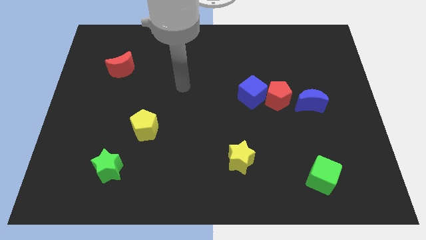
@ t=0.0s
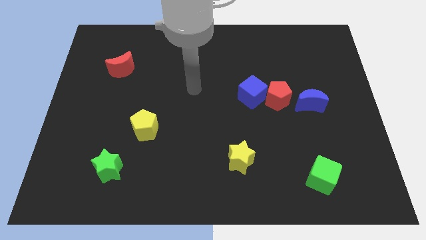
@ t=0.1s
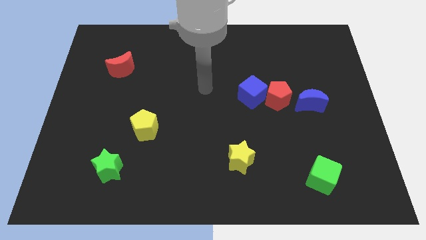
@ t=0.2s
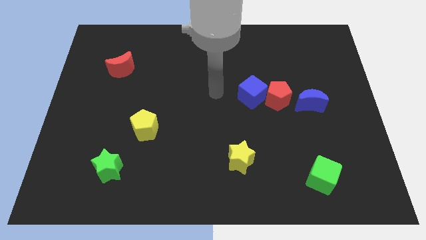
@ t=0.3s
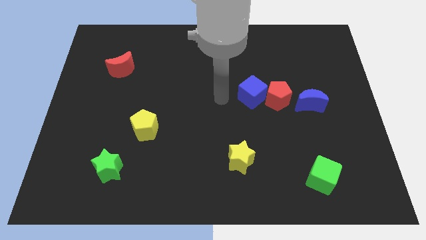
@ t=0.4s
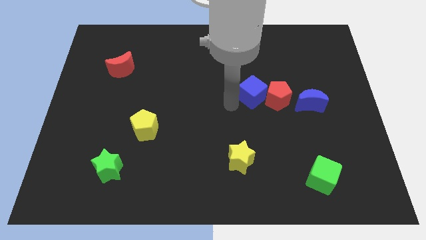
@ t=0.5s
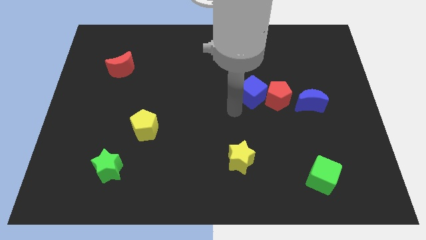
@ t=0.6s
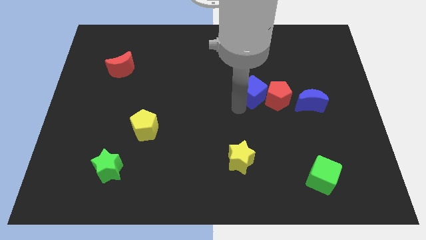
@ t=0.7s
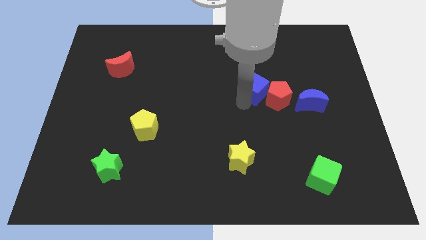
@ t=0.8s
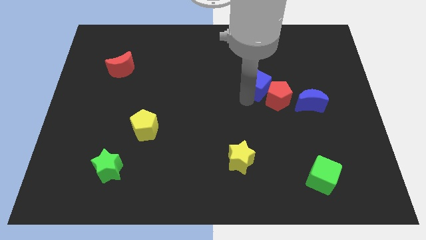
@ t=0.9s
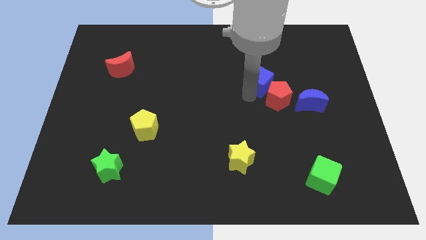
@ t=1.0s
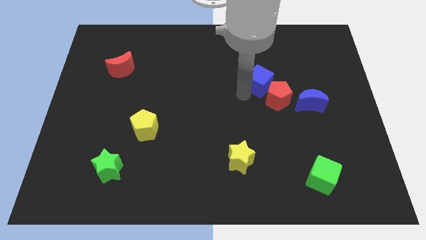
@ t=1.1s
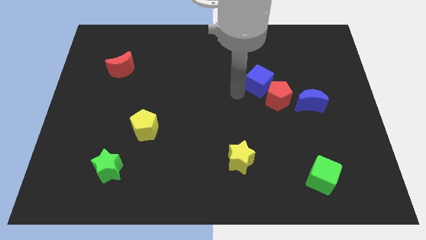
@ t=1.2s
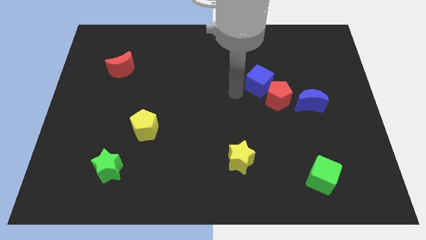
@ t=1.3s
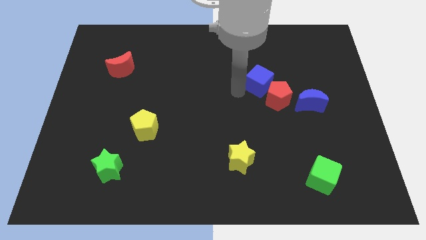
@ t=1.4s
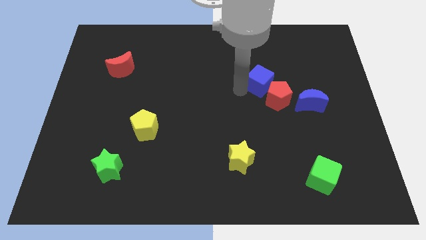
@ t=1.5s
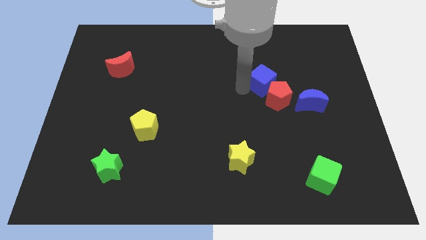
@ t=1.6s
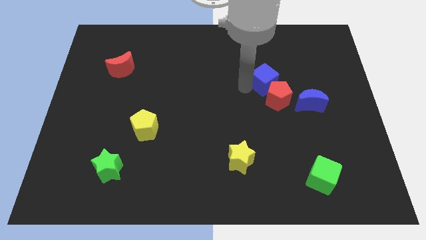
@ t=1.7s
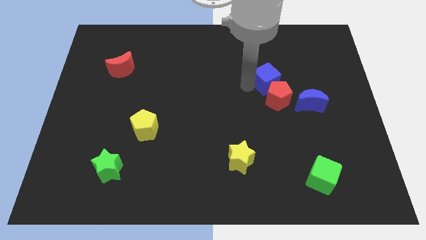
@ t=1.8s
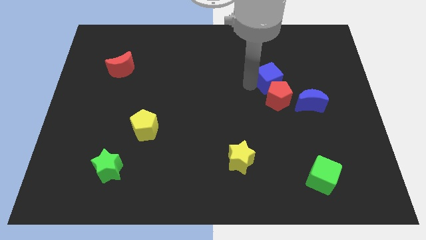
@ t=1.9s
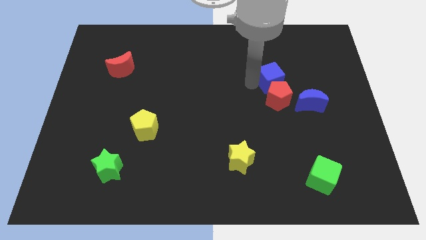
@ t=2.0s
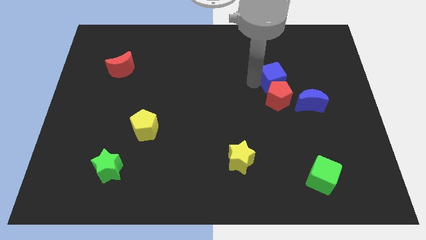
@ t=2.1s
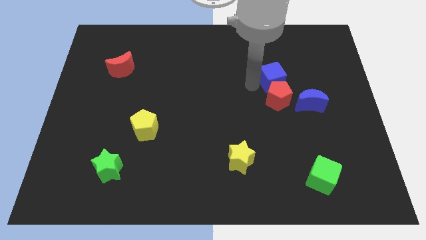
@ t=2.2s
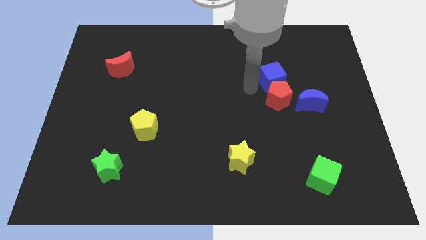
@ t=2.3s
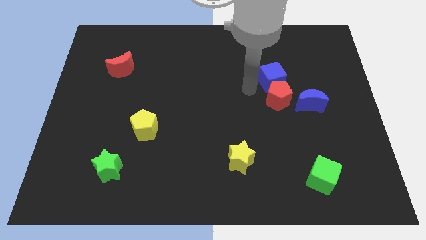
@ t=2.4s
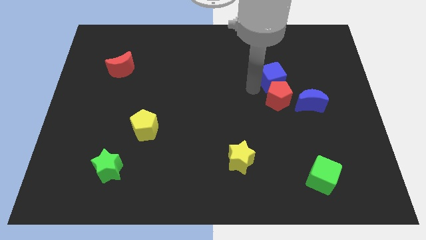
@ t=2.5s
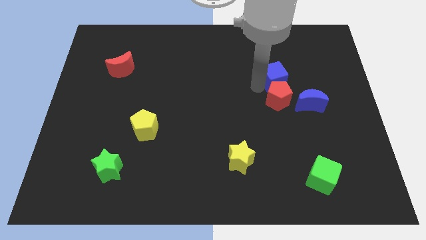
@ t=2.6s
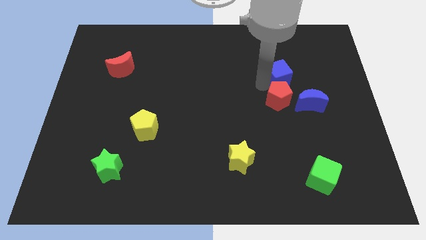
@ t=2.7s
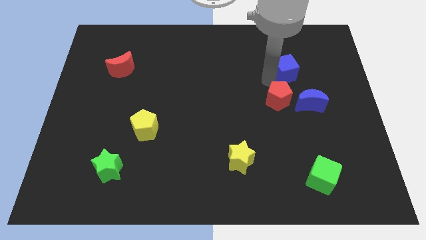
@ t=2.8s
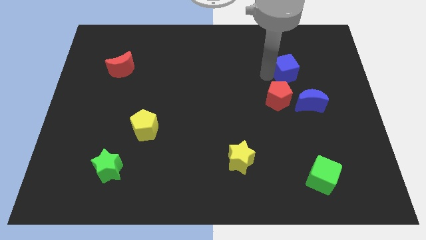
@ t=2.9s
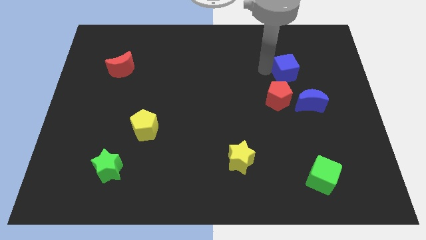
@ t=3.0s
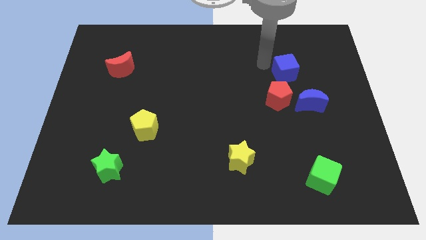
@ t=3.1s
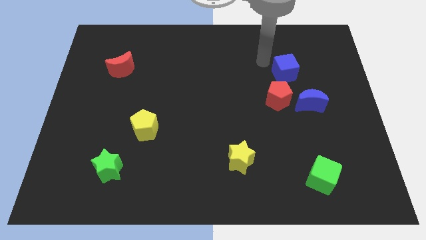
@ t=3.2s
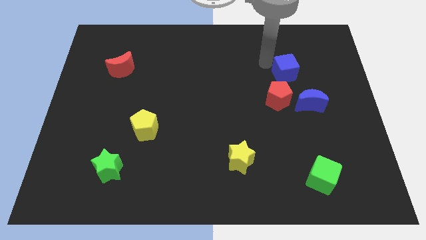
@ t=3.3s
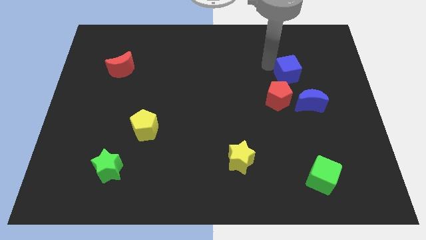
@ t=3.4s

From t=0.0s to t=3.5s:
move the blue cube to the right a little

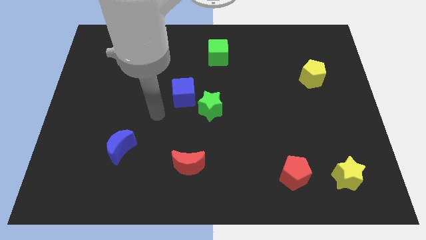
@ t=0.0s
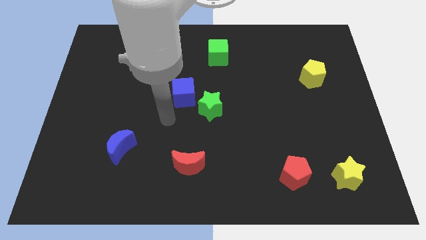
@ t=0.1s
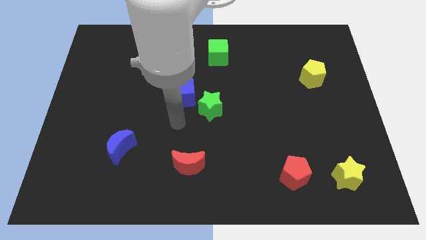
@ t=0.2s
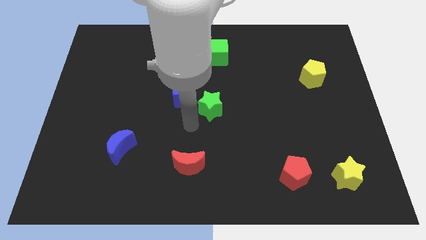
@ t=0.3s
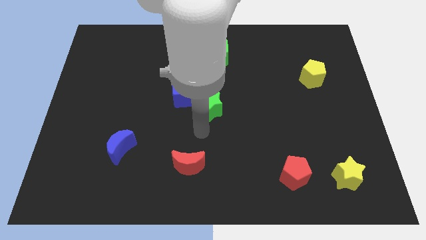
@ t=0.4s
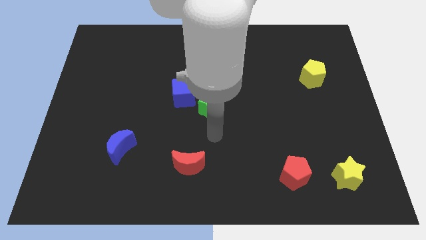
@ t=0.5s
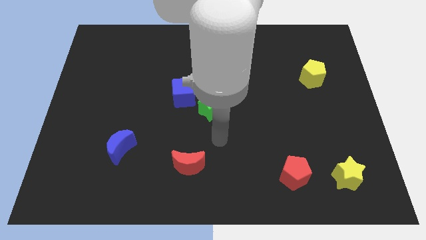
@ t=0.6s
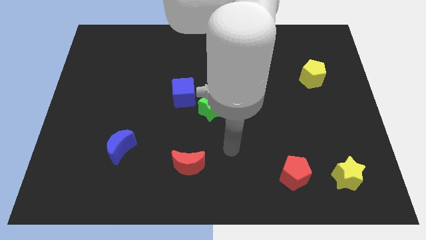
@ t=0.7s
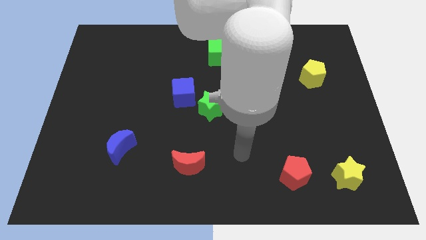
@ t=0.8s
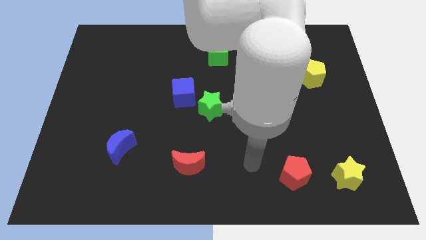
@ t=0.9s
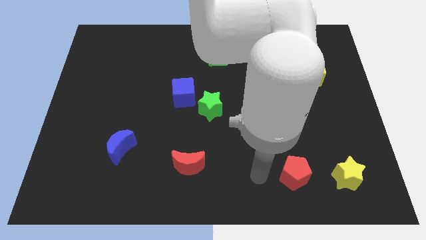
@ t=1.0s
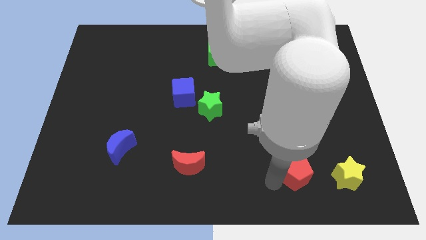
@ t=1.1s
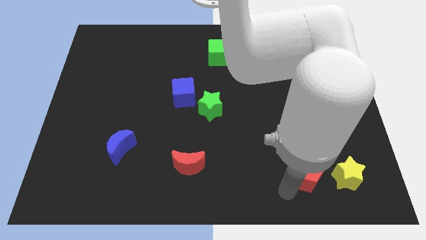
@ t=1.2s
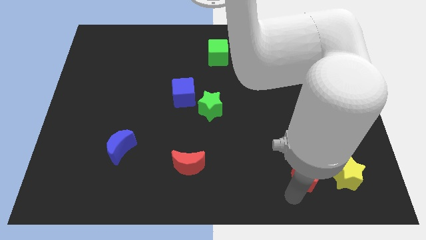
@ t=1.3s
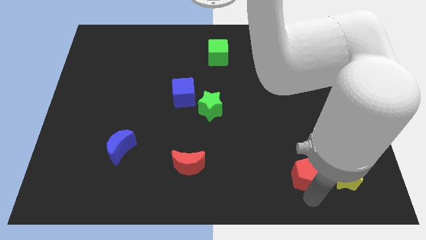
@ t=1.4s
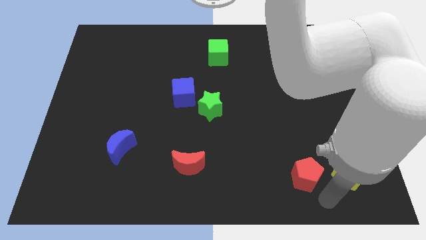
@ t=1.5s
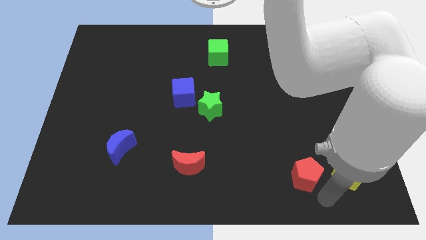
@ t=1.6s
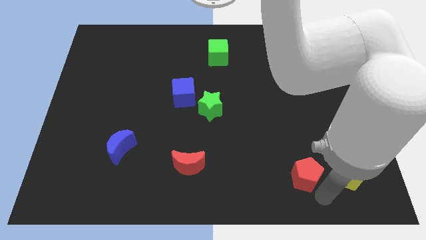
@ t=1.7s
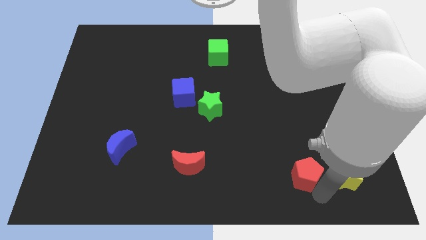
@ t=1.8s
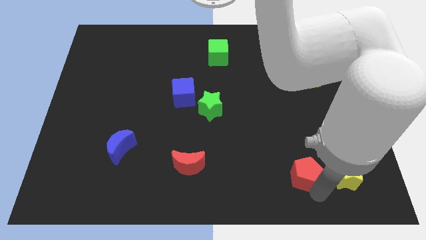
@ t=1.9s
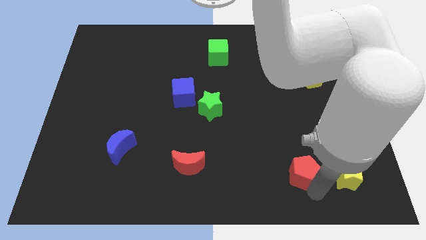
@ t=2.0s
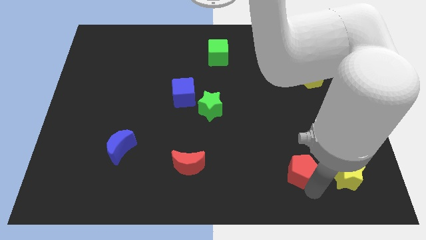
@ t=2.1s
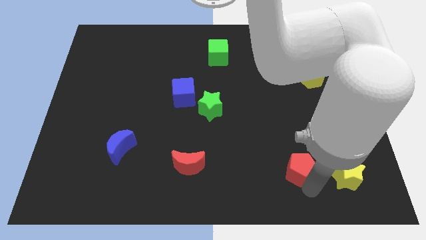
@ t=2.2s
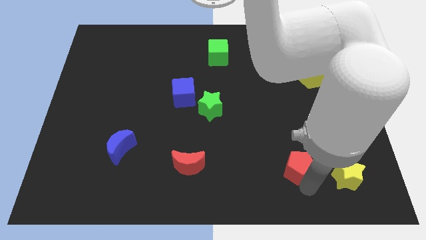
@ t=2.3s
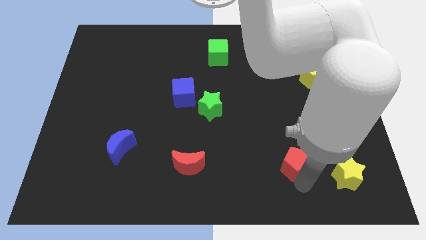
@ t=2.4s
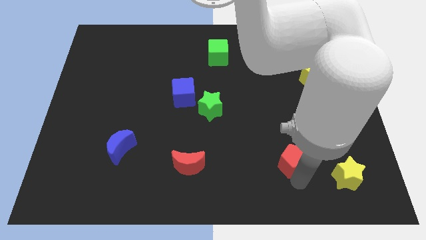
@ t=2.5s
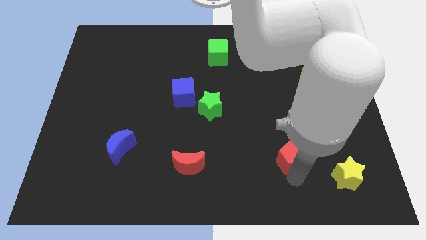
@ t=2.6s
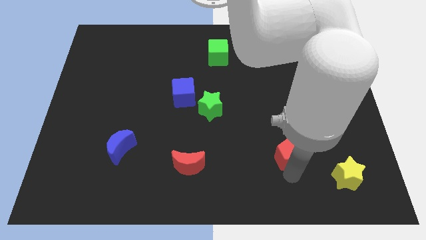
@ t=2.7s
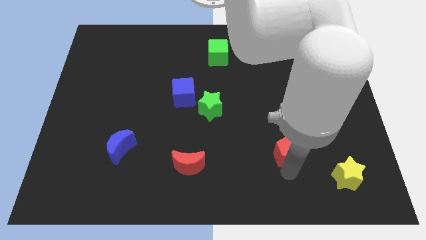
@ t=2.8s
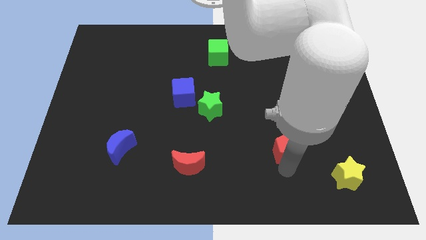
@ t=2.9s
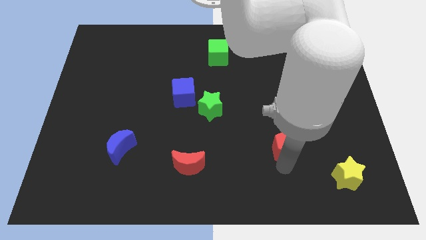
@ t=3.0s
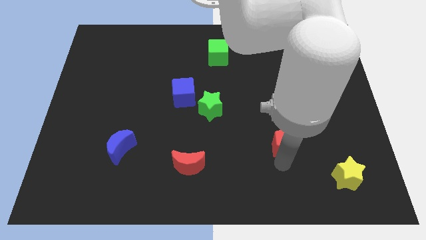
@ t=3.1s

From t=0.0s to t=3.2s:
slightly move the red pentagon upwards

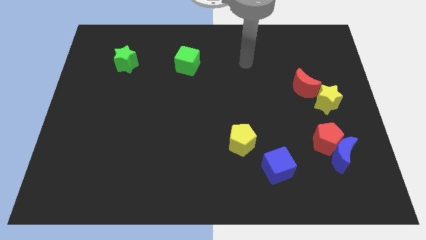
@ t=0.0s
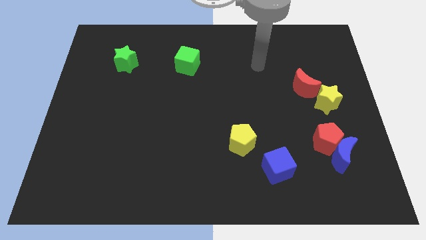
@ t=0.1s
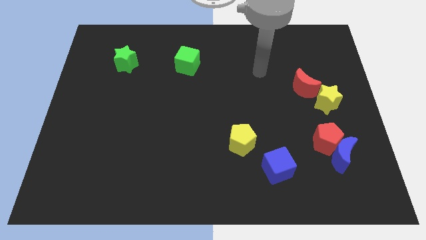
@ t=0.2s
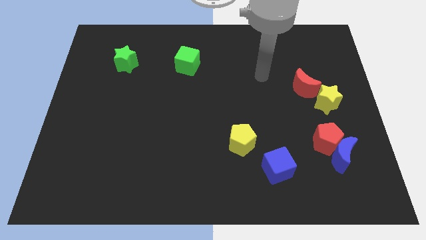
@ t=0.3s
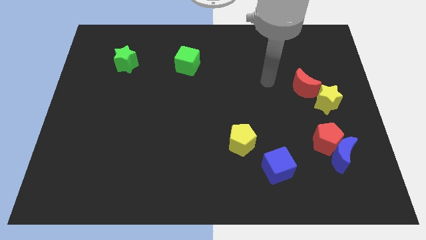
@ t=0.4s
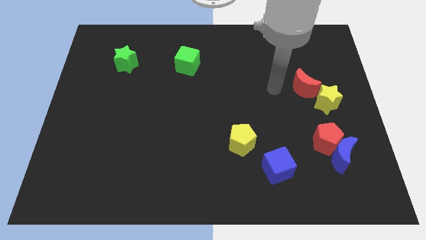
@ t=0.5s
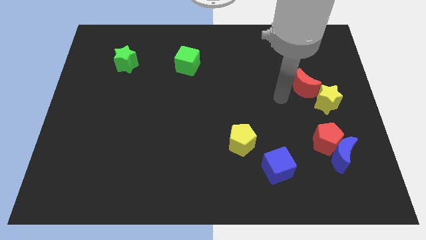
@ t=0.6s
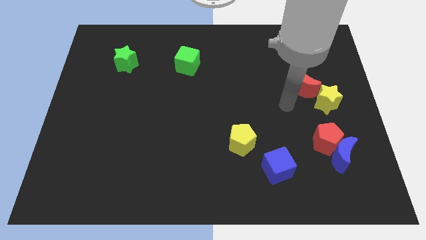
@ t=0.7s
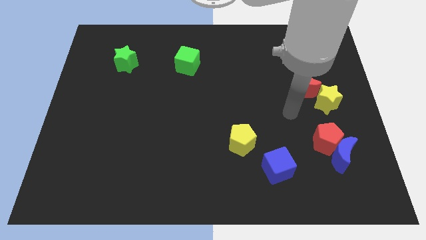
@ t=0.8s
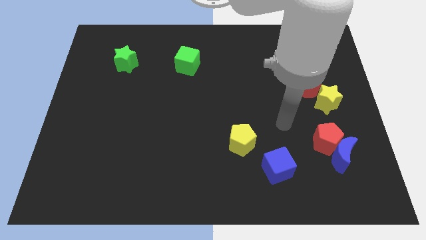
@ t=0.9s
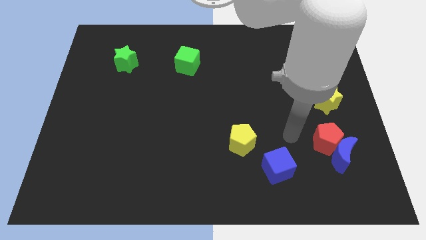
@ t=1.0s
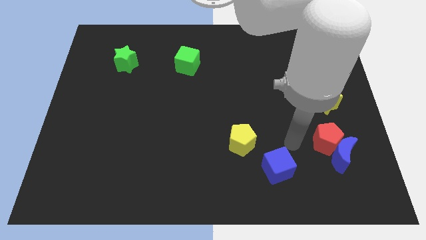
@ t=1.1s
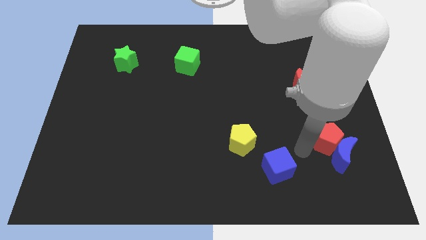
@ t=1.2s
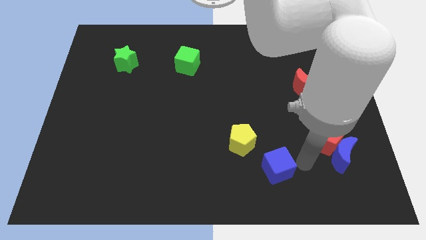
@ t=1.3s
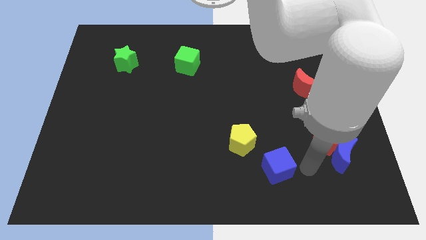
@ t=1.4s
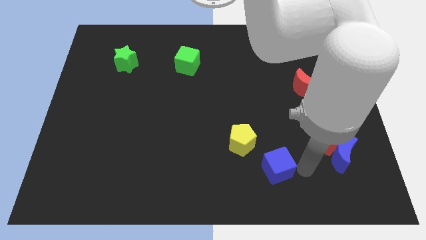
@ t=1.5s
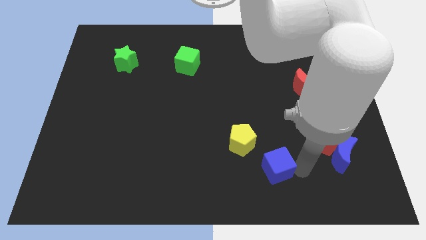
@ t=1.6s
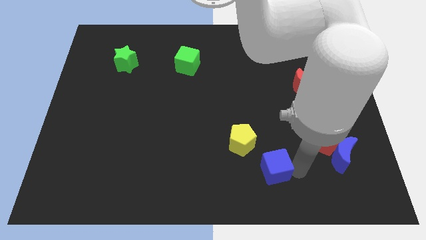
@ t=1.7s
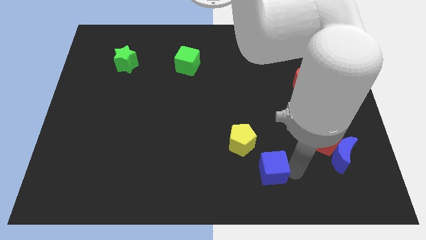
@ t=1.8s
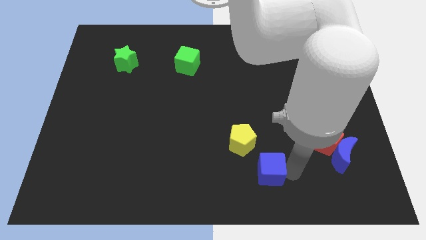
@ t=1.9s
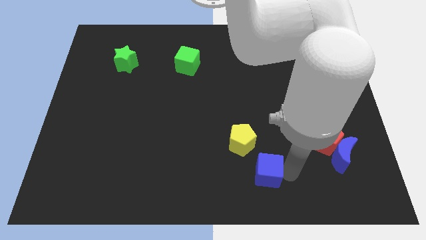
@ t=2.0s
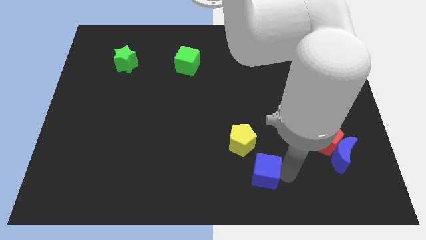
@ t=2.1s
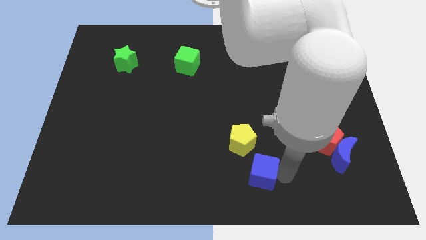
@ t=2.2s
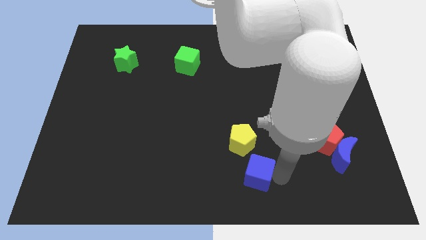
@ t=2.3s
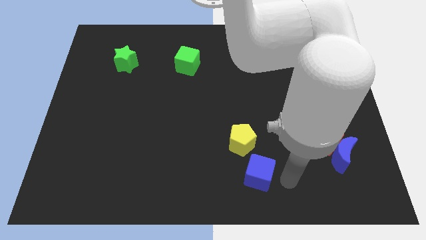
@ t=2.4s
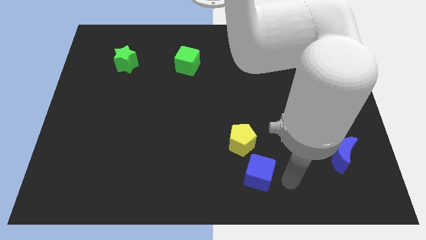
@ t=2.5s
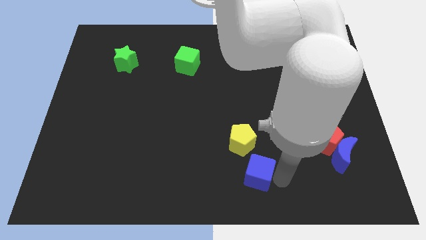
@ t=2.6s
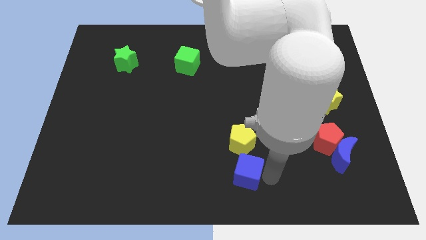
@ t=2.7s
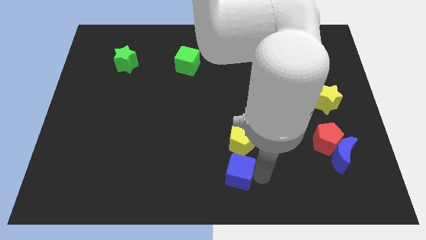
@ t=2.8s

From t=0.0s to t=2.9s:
slightly slide the blue cube to the left
